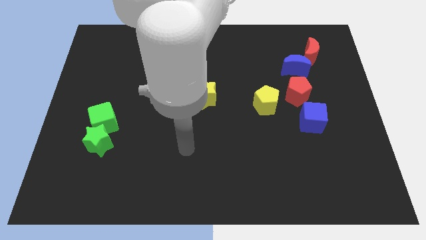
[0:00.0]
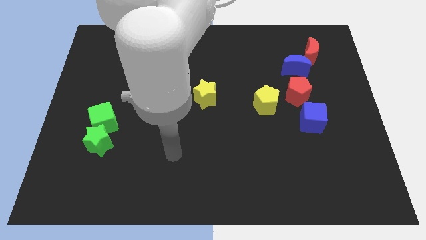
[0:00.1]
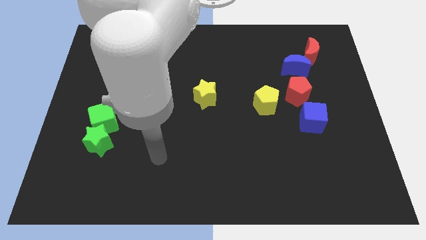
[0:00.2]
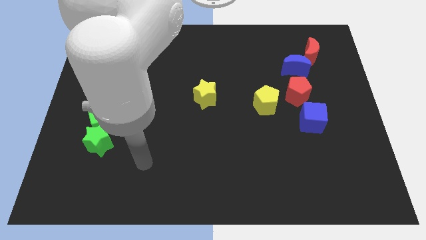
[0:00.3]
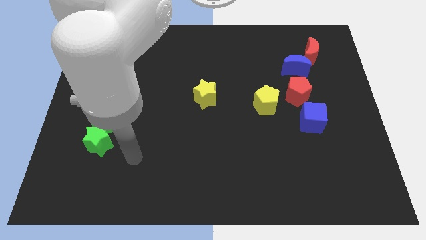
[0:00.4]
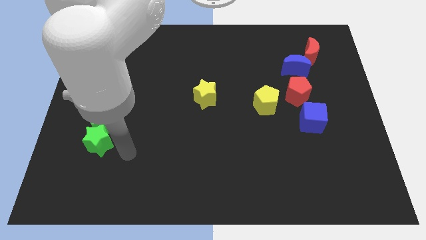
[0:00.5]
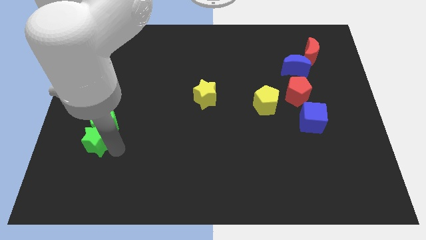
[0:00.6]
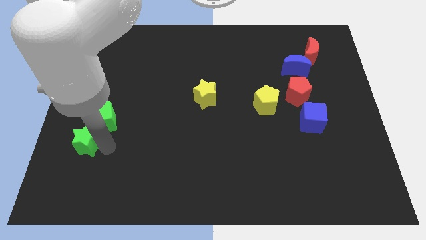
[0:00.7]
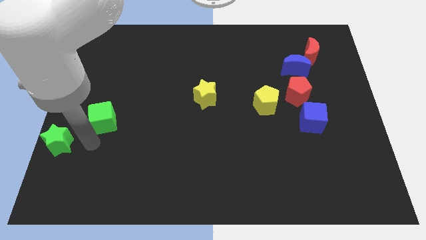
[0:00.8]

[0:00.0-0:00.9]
pull the green cube apart from the green star

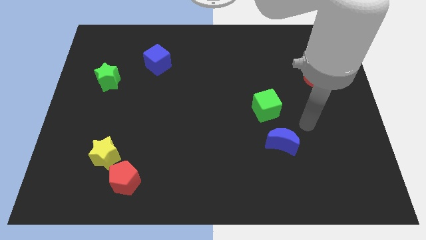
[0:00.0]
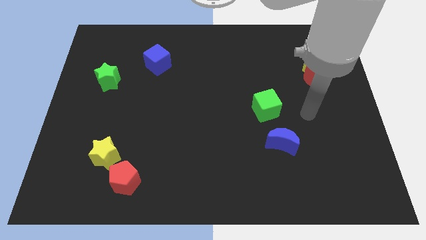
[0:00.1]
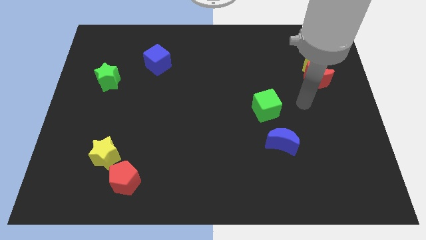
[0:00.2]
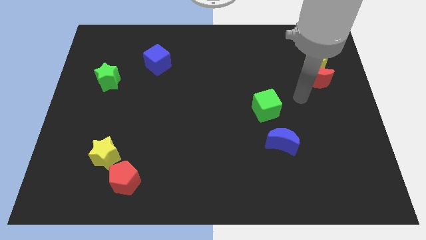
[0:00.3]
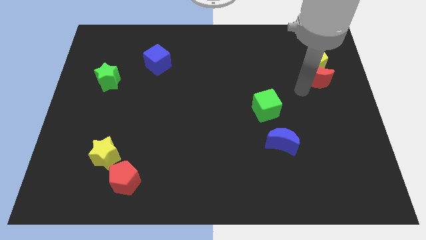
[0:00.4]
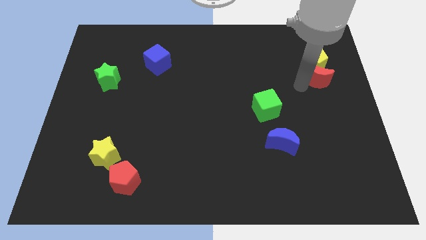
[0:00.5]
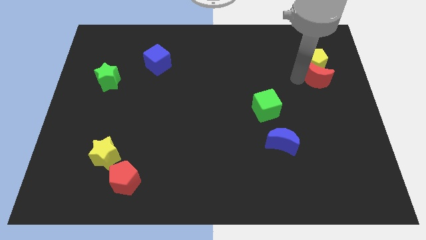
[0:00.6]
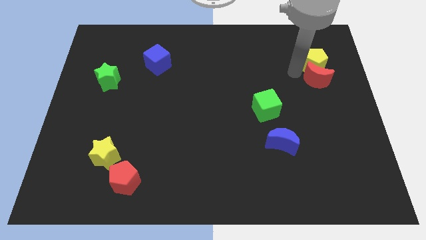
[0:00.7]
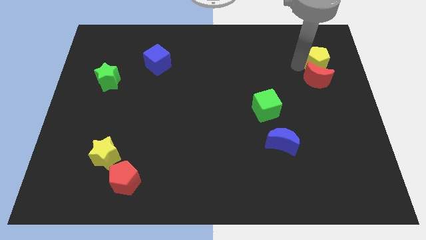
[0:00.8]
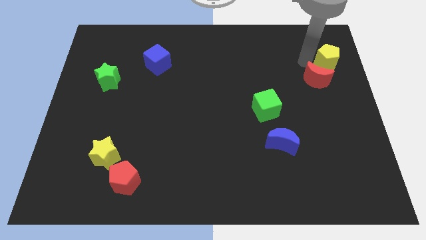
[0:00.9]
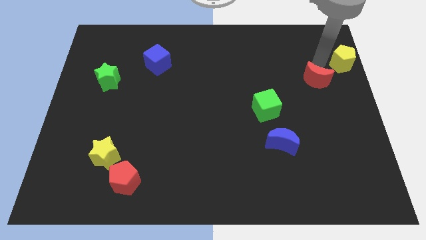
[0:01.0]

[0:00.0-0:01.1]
pull the red moon apart from the yellow pentagon

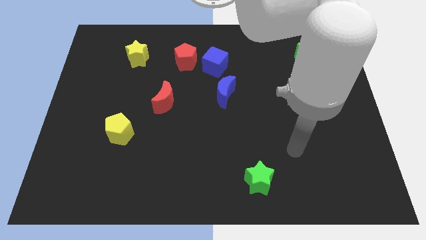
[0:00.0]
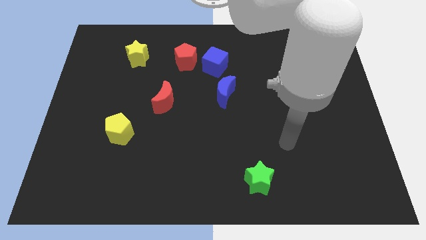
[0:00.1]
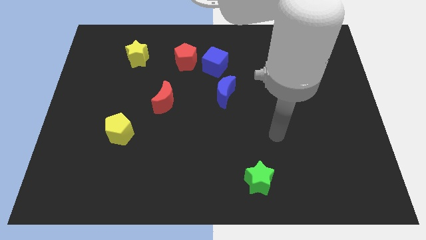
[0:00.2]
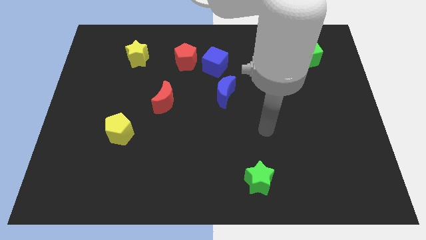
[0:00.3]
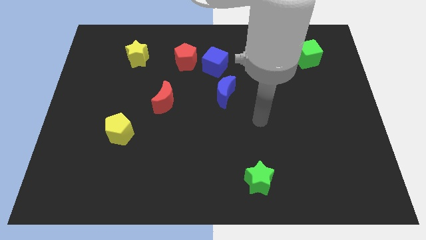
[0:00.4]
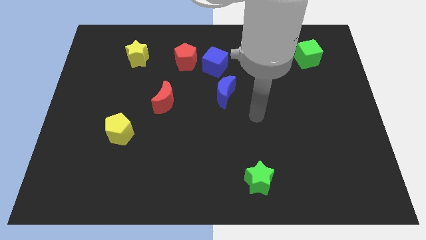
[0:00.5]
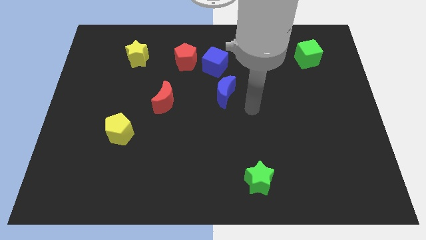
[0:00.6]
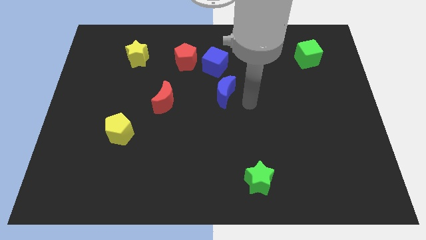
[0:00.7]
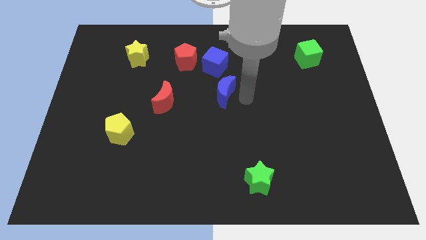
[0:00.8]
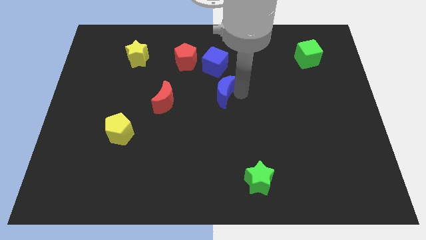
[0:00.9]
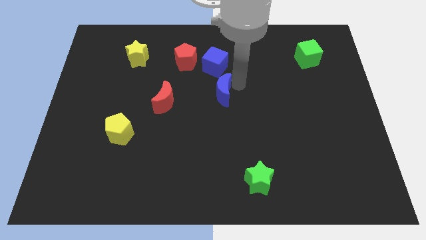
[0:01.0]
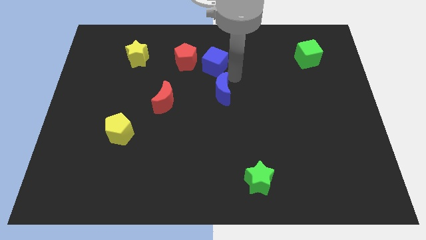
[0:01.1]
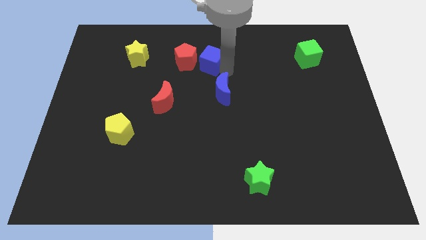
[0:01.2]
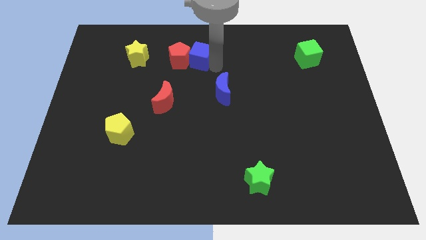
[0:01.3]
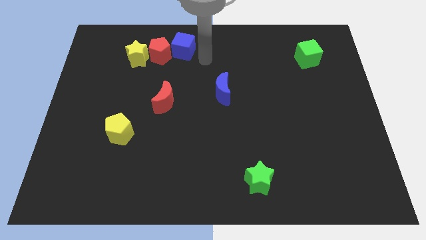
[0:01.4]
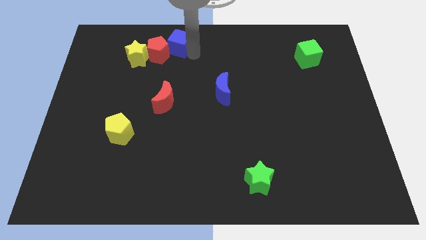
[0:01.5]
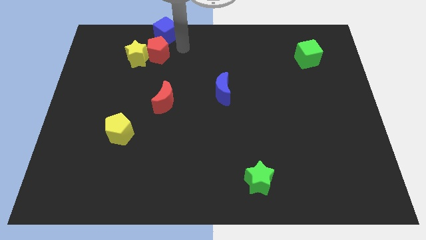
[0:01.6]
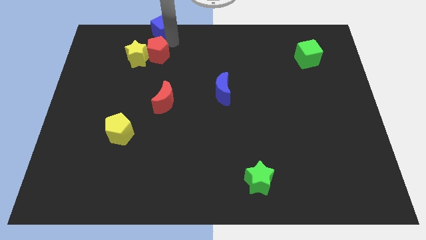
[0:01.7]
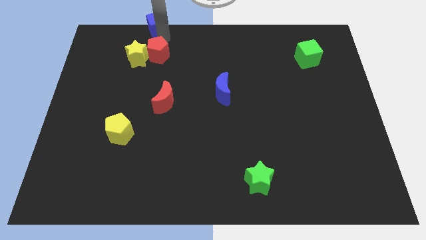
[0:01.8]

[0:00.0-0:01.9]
move the red pentagon away from the blue cube

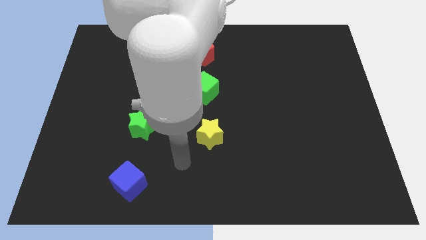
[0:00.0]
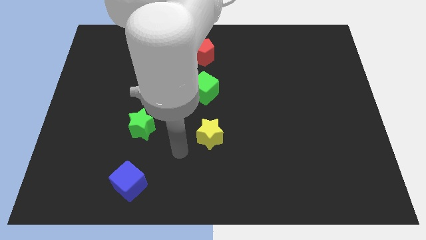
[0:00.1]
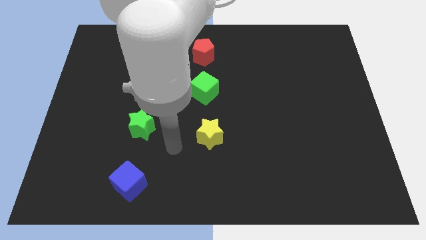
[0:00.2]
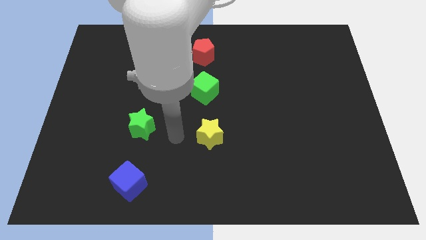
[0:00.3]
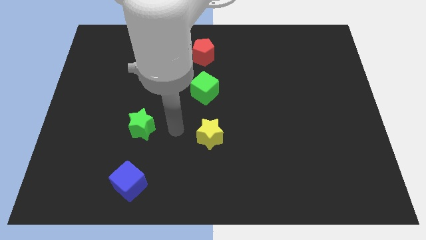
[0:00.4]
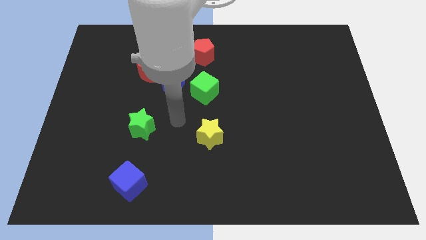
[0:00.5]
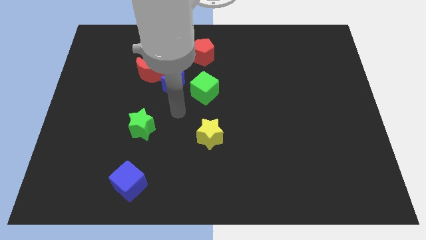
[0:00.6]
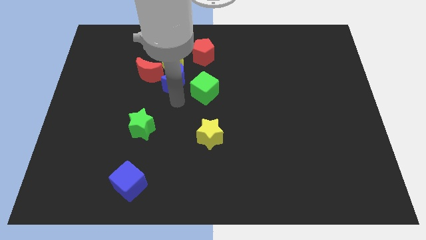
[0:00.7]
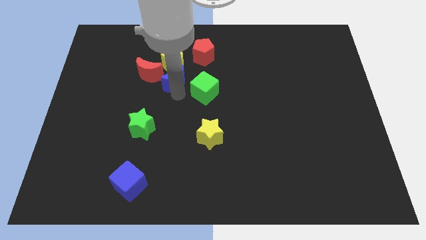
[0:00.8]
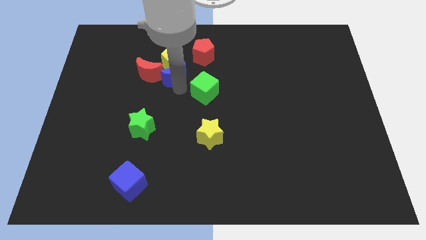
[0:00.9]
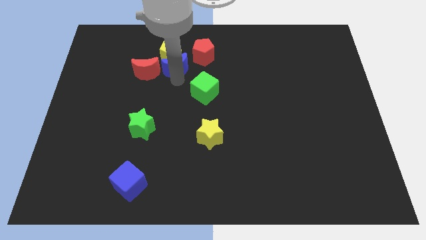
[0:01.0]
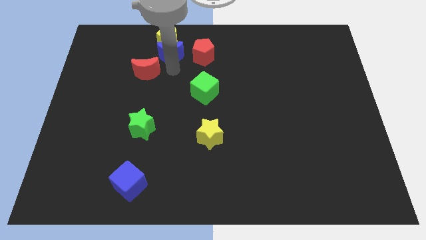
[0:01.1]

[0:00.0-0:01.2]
move the red moon away from the yellow pentagon and blue moon

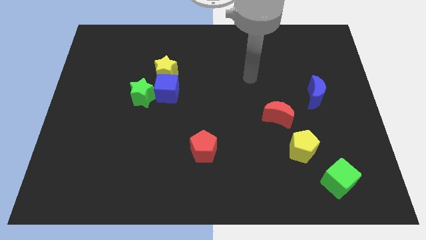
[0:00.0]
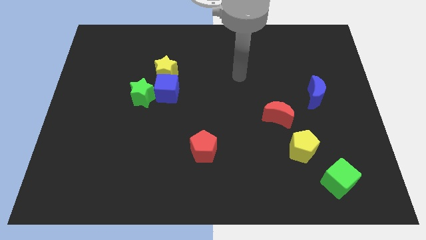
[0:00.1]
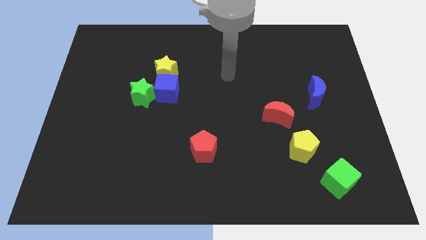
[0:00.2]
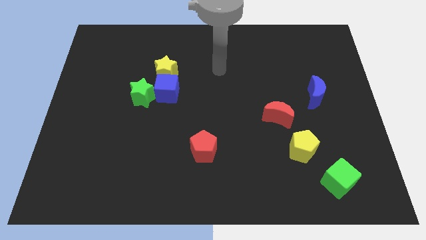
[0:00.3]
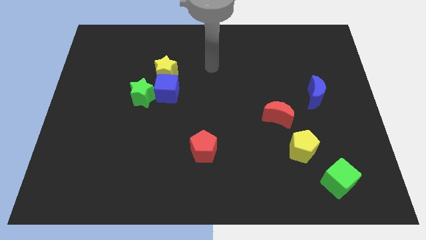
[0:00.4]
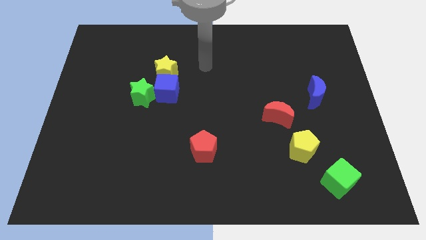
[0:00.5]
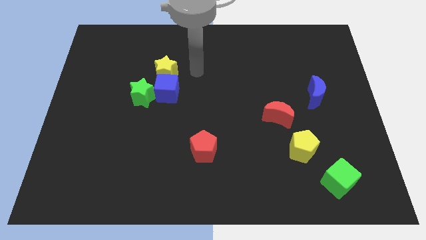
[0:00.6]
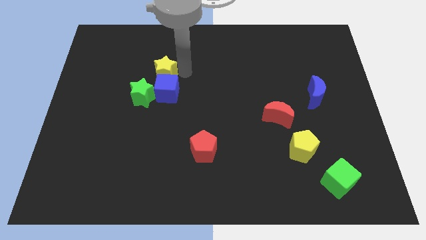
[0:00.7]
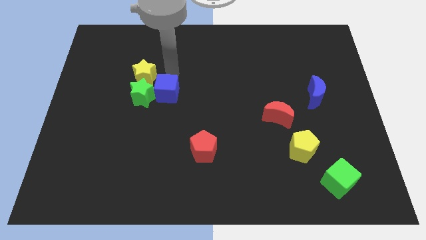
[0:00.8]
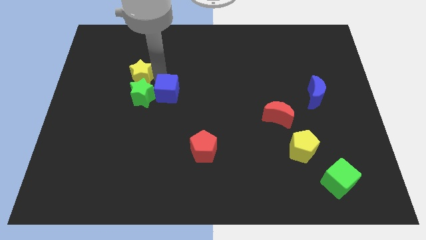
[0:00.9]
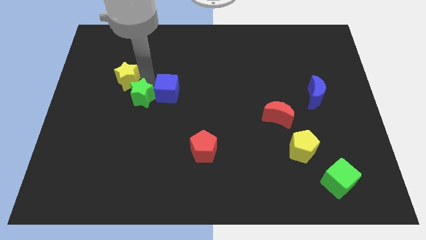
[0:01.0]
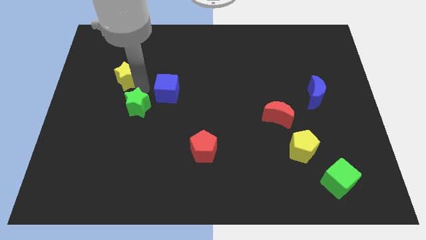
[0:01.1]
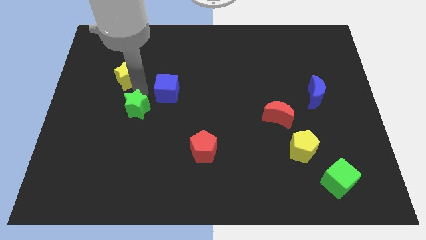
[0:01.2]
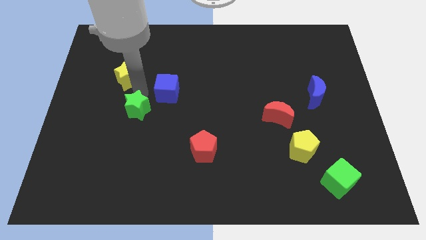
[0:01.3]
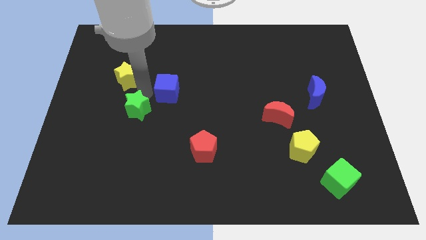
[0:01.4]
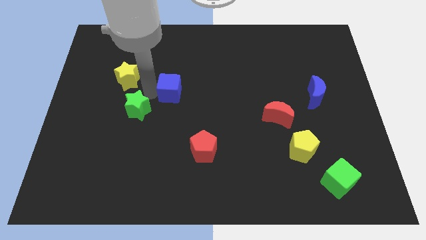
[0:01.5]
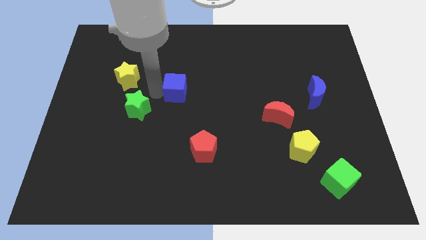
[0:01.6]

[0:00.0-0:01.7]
move the blue cube away from the yellow star and green star

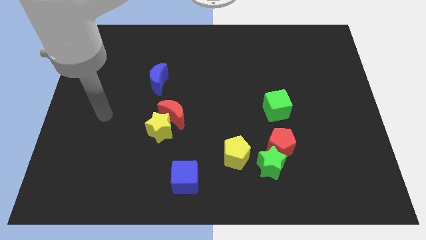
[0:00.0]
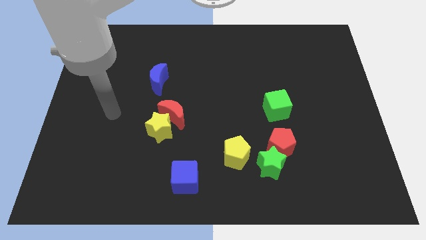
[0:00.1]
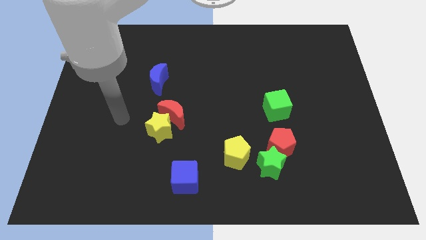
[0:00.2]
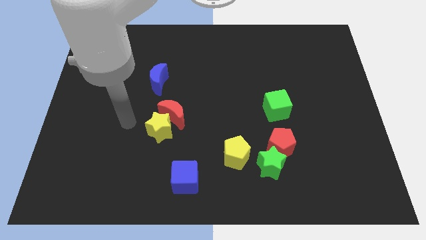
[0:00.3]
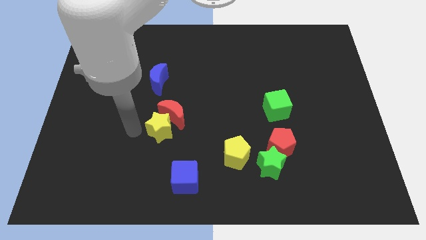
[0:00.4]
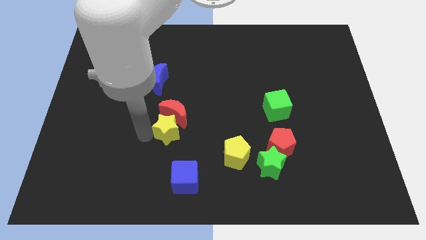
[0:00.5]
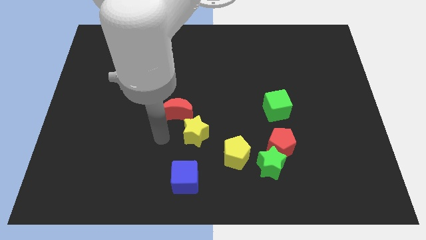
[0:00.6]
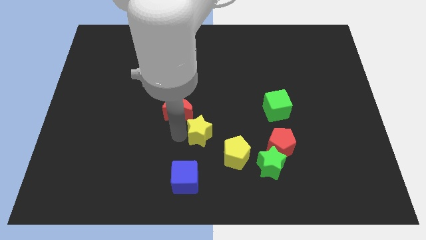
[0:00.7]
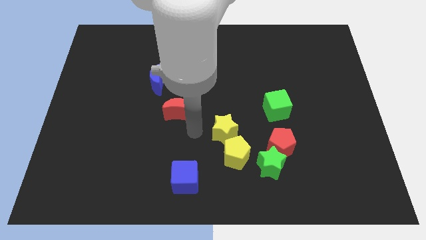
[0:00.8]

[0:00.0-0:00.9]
move the red moon away from the yellow star

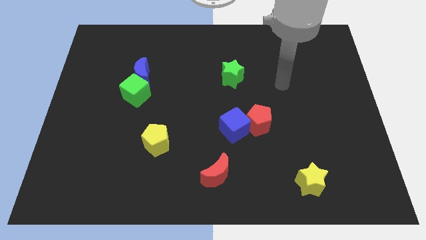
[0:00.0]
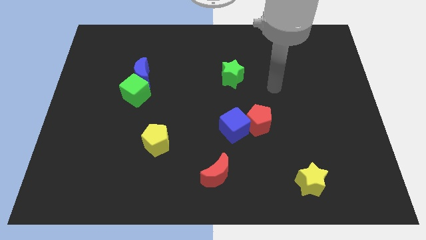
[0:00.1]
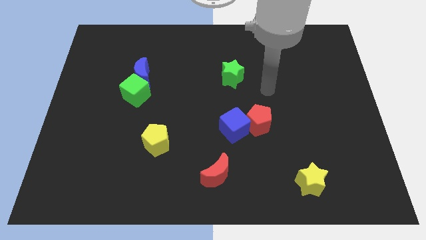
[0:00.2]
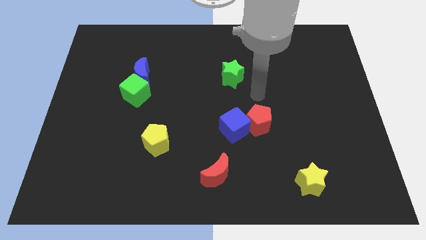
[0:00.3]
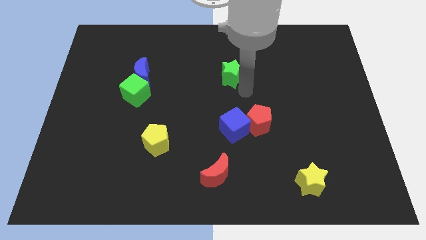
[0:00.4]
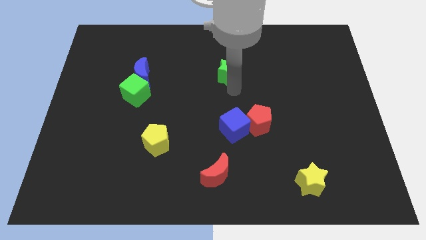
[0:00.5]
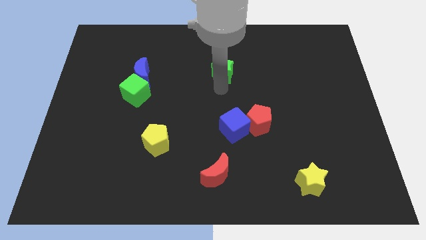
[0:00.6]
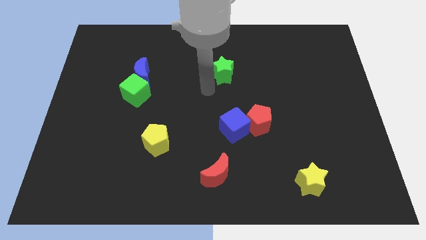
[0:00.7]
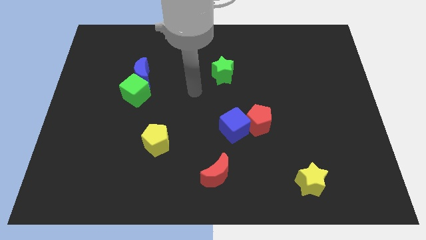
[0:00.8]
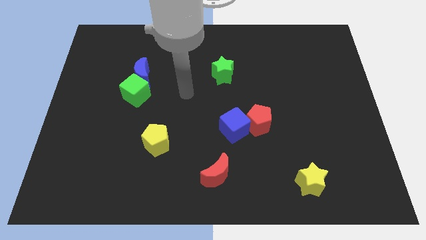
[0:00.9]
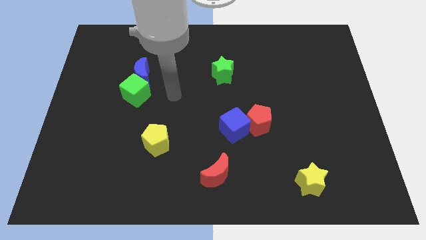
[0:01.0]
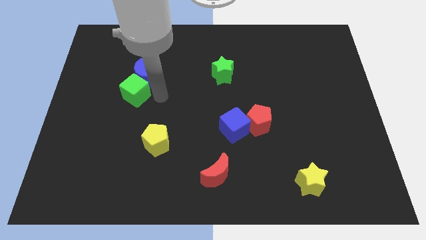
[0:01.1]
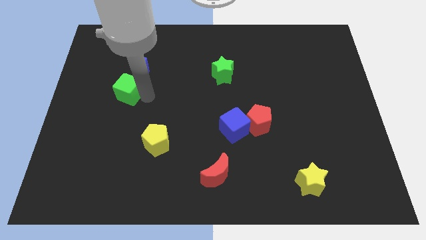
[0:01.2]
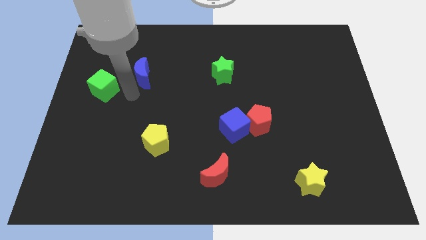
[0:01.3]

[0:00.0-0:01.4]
separate the blue moon from the green cube

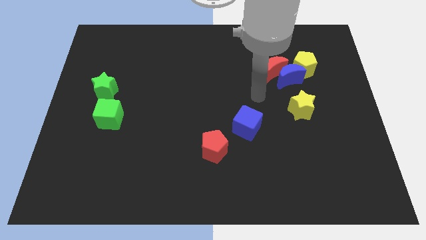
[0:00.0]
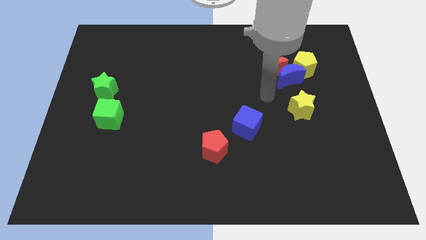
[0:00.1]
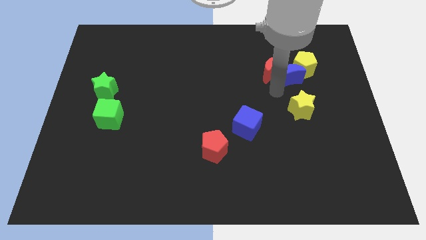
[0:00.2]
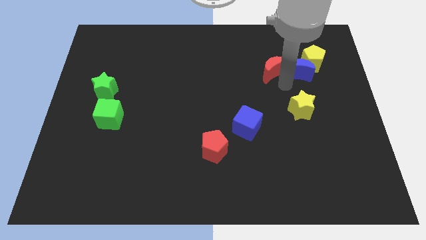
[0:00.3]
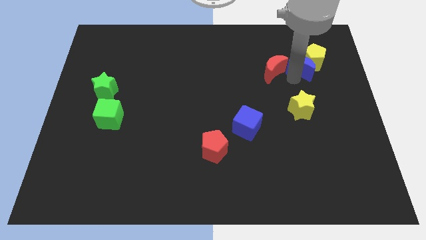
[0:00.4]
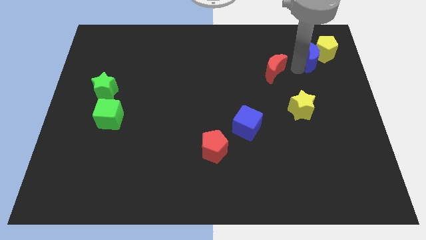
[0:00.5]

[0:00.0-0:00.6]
pull the red moon apart from the blue moon and yellow pentagon
